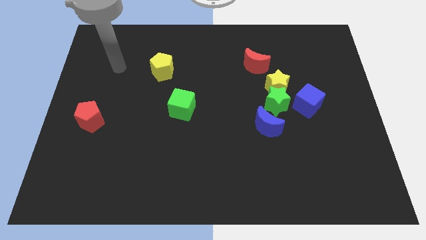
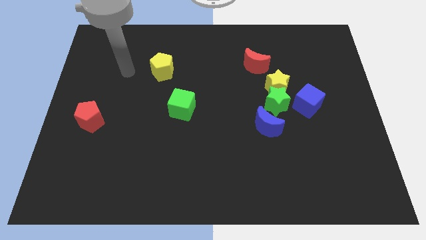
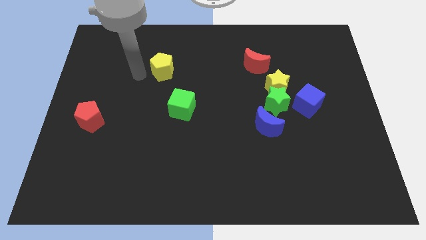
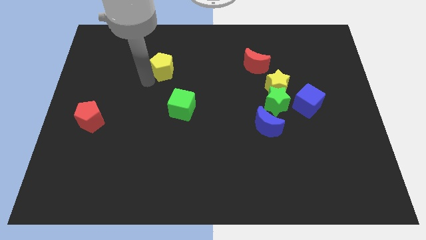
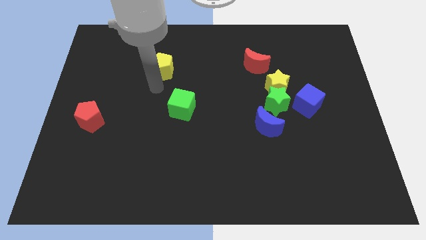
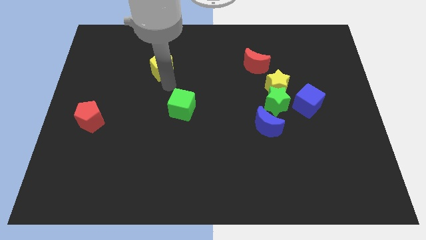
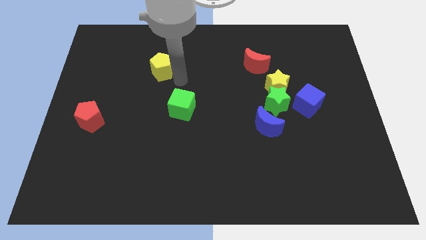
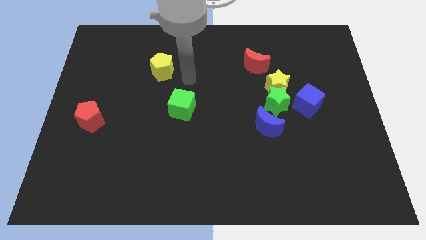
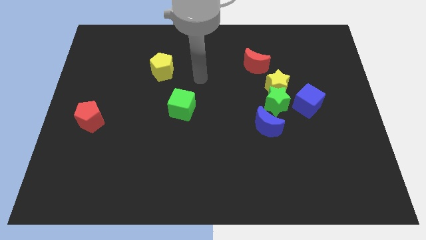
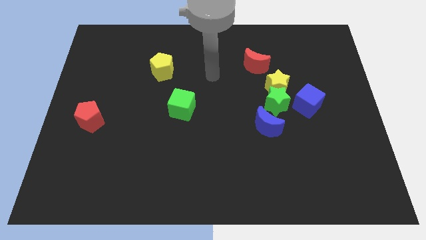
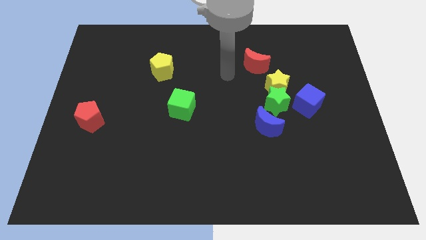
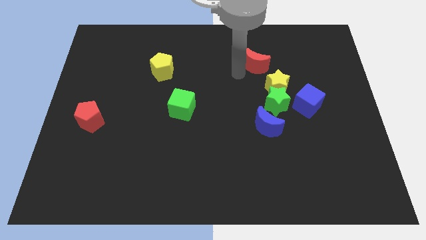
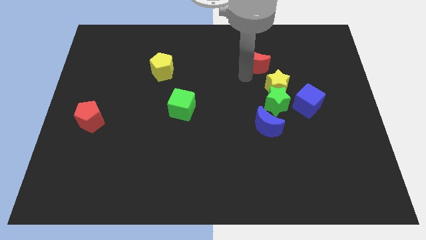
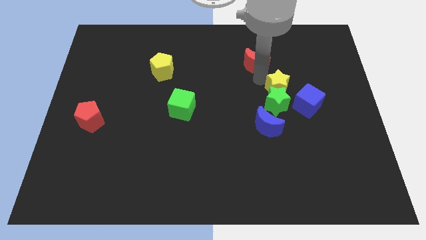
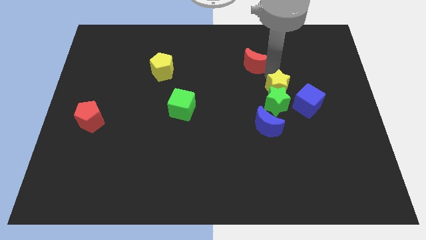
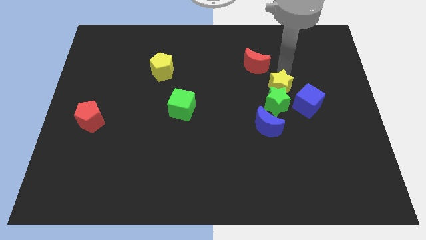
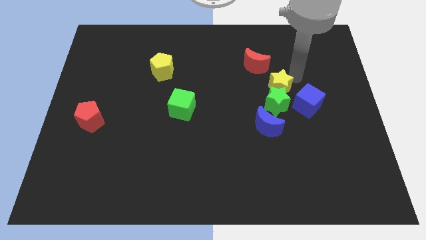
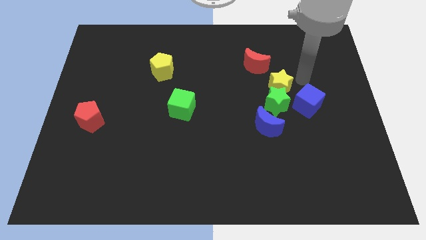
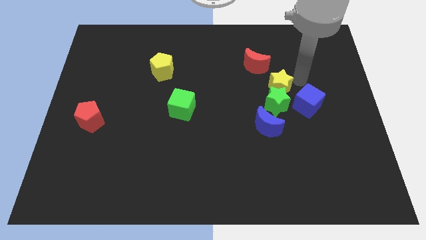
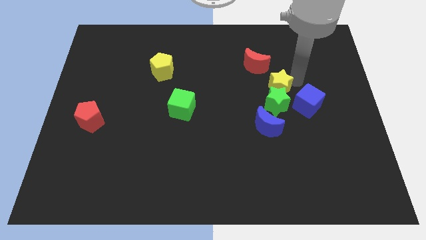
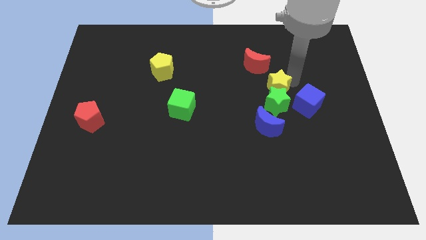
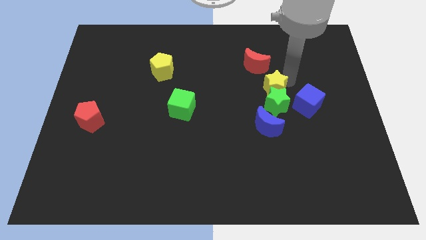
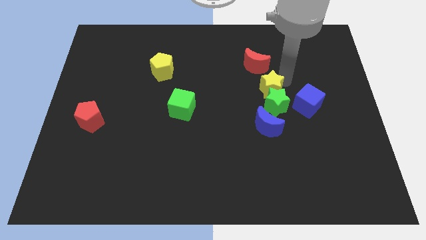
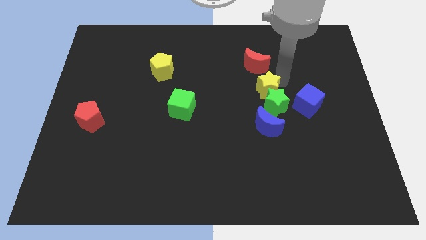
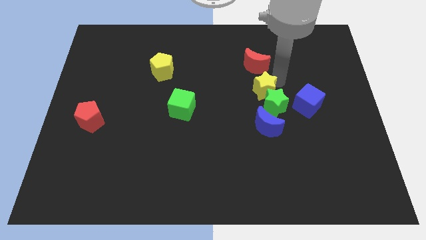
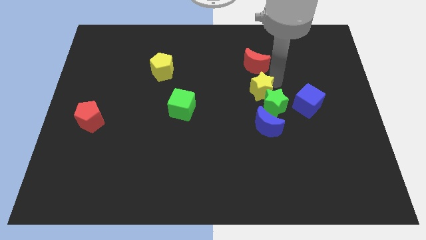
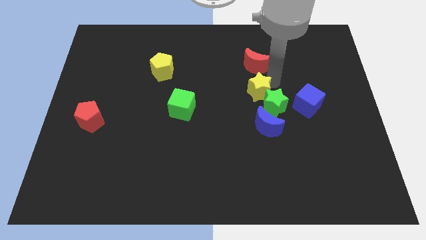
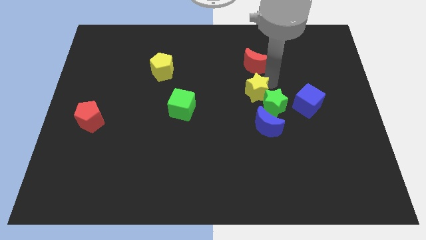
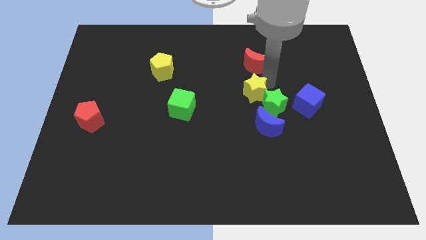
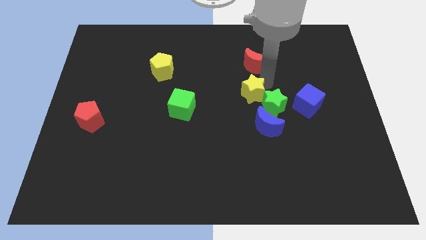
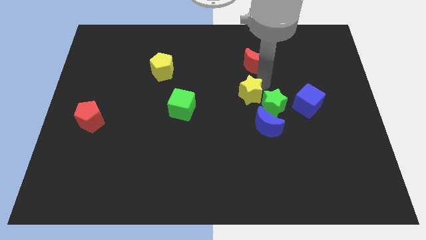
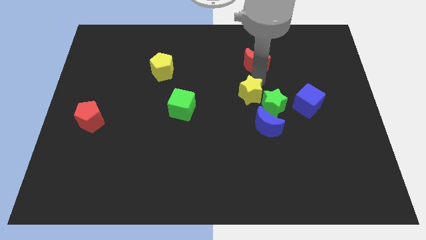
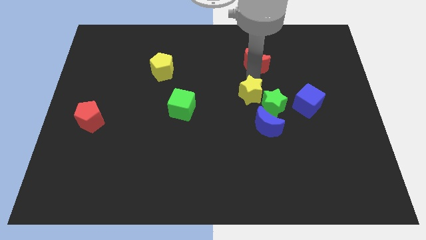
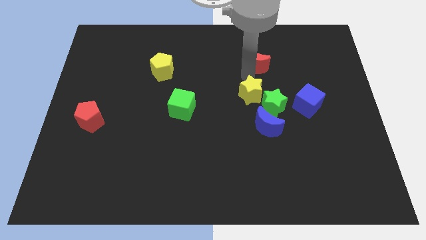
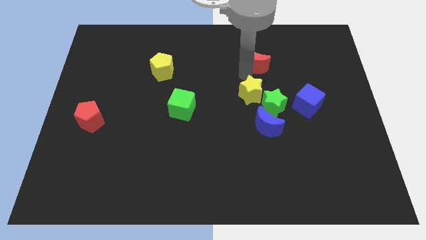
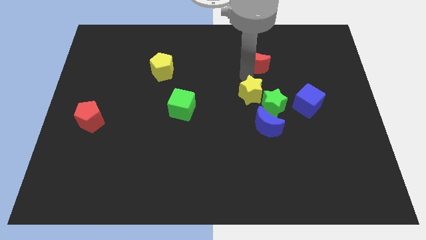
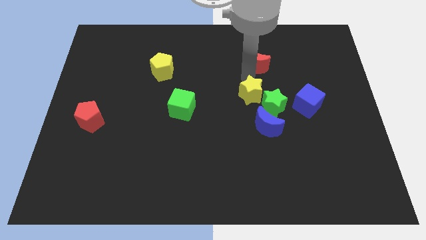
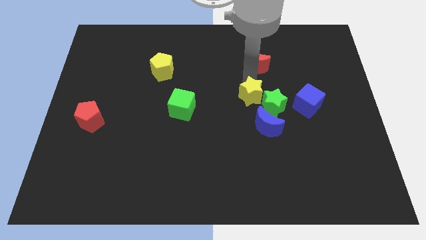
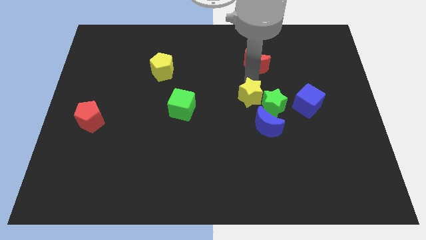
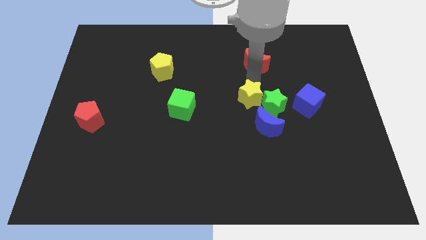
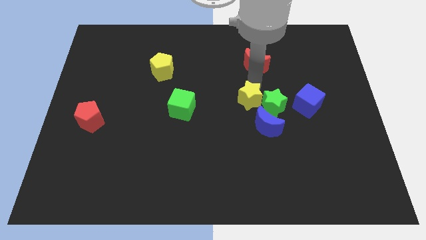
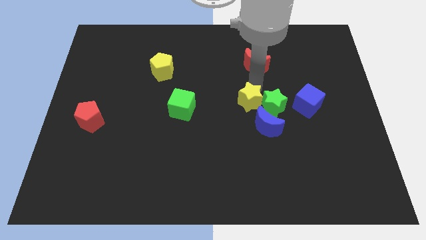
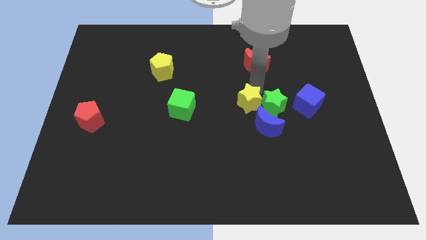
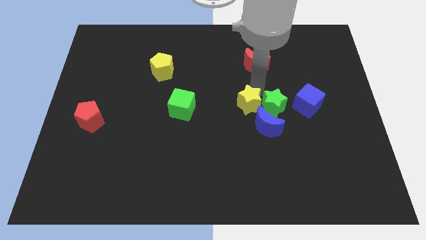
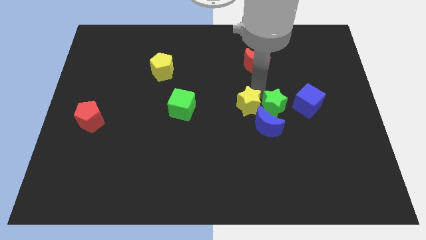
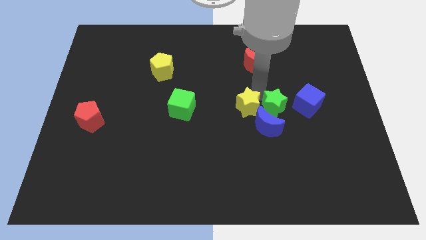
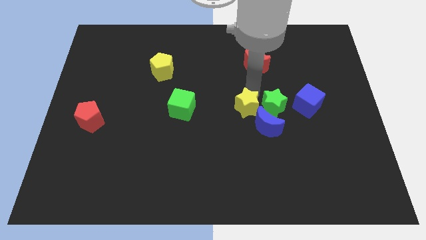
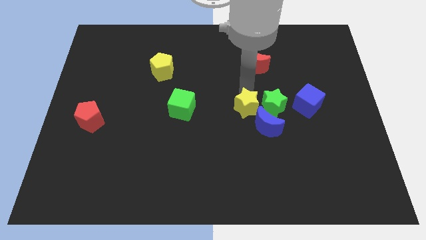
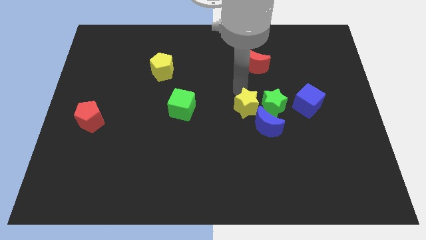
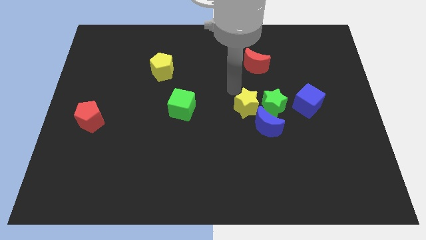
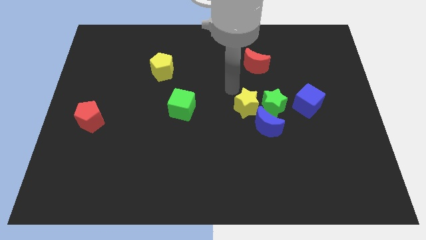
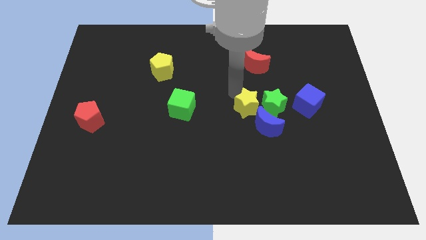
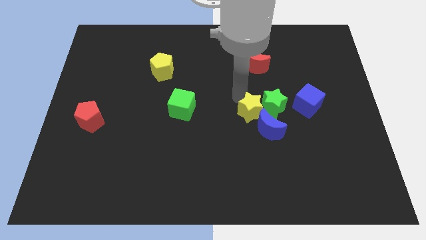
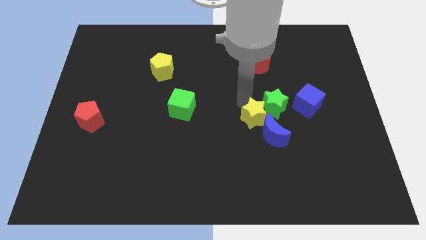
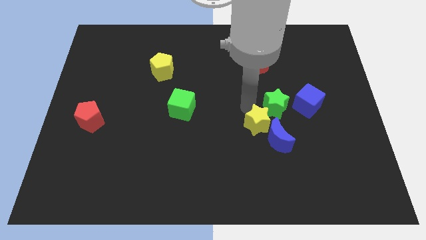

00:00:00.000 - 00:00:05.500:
slide the yellow star to the blue moon

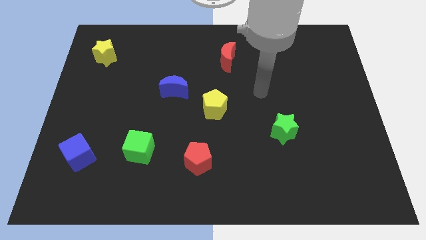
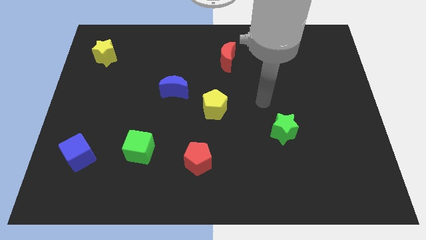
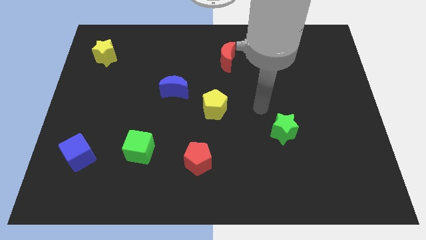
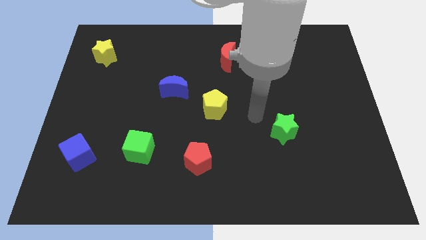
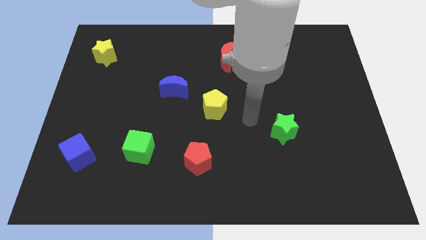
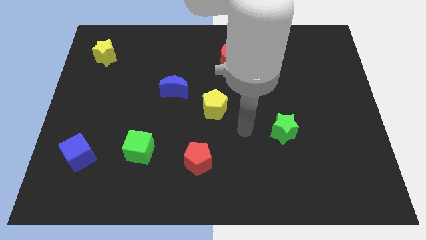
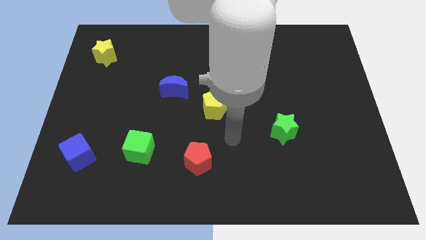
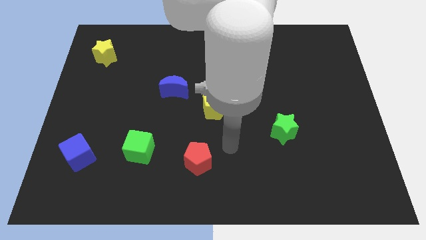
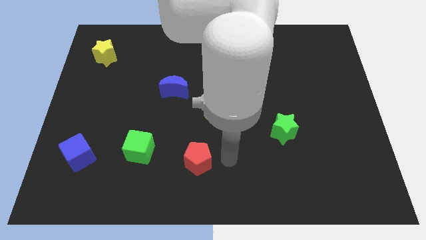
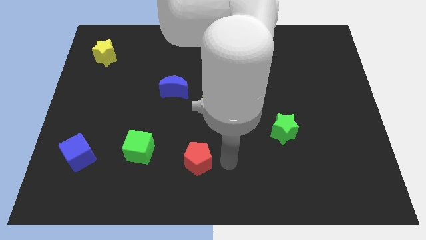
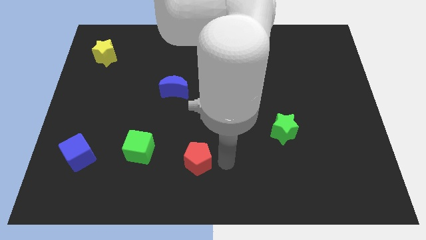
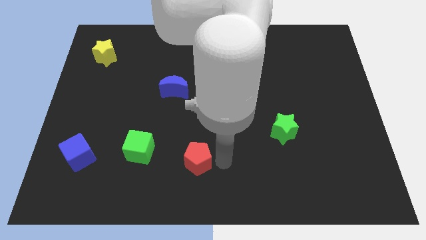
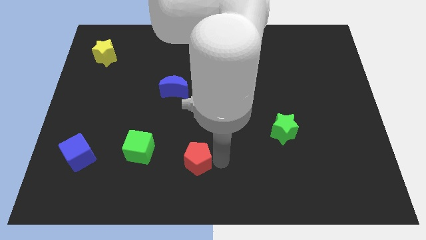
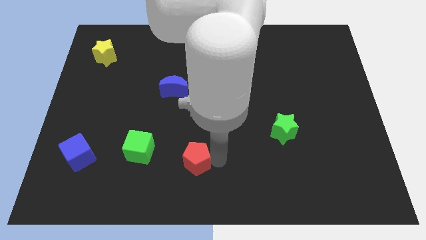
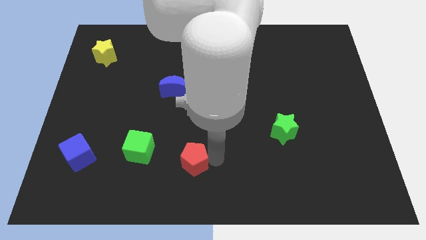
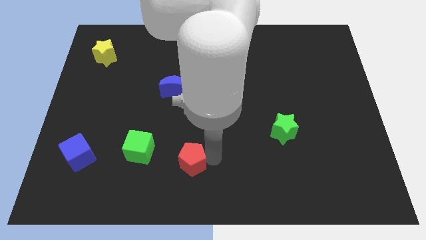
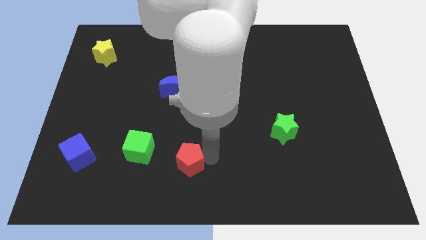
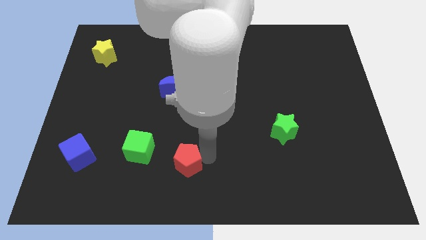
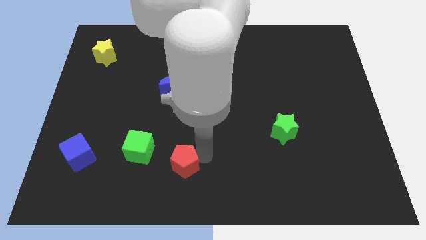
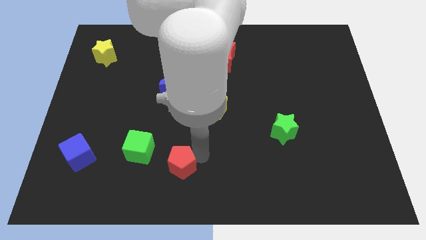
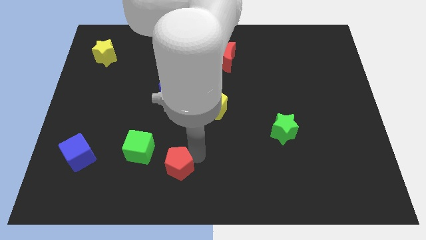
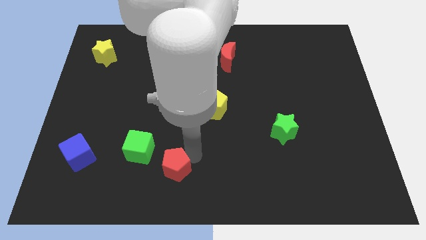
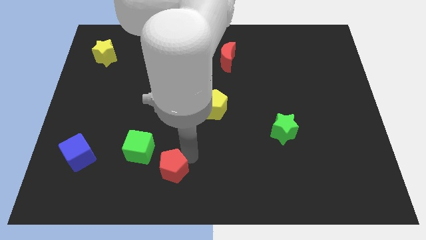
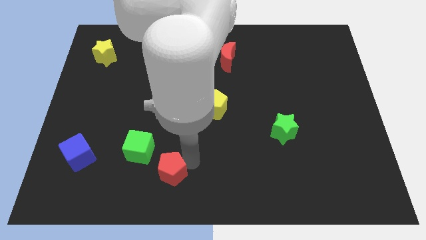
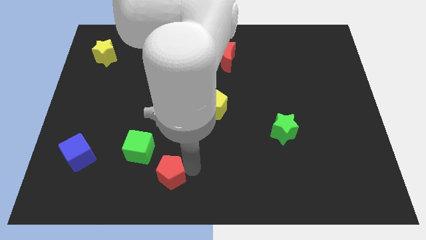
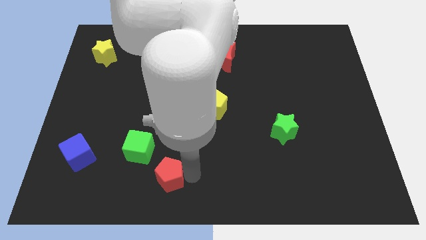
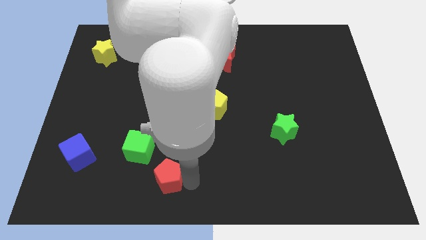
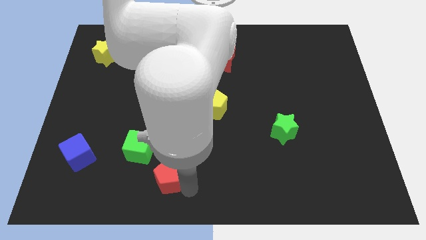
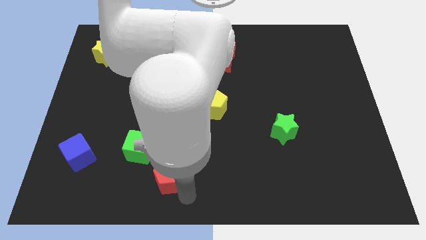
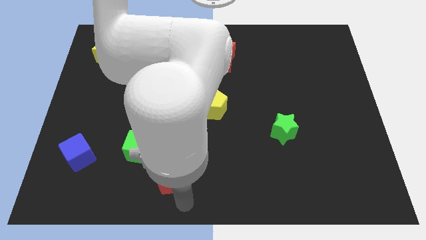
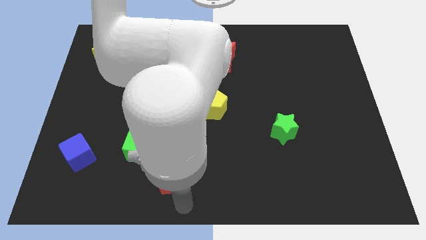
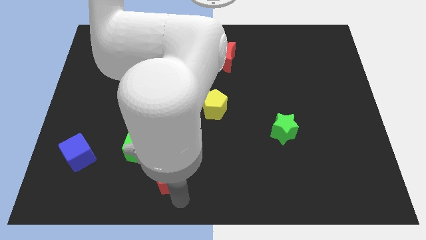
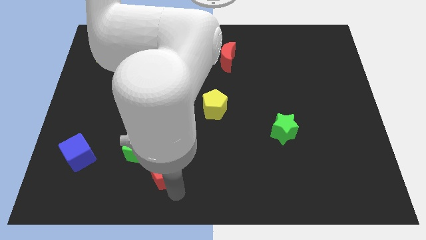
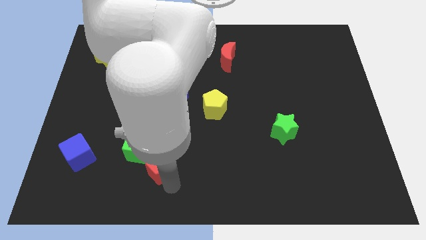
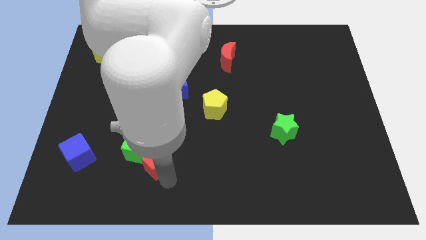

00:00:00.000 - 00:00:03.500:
move the red pentagon next to the green cube
